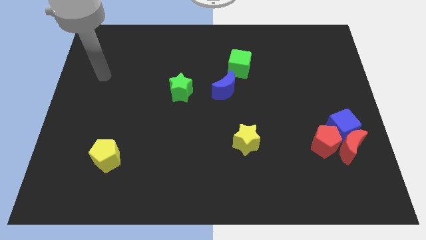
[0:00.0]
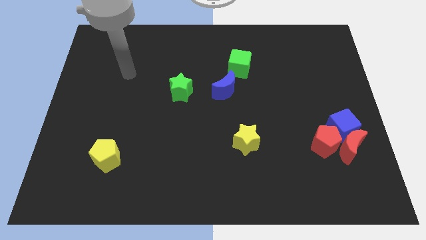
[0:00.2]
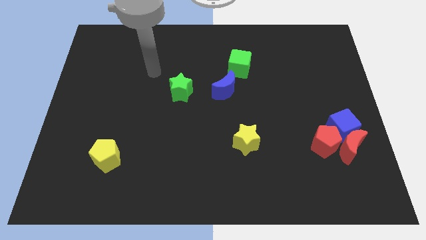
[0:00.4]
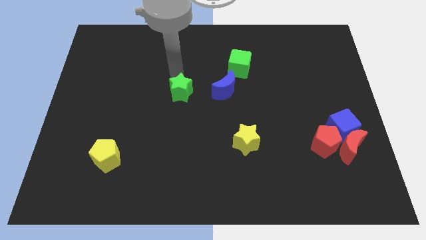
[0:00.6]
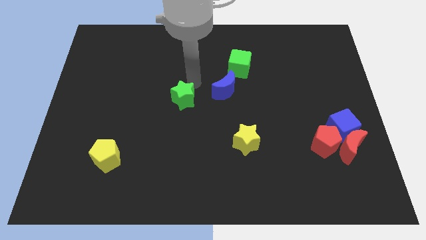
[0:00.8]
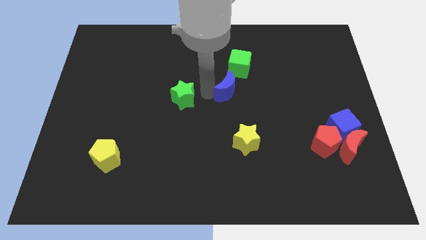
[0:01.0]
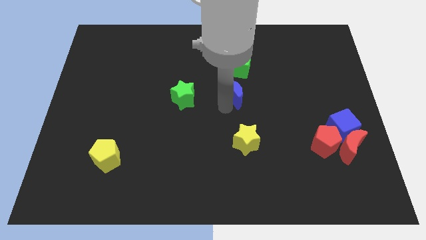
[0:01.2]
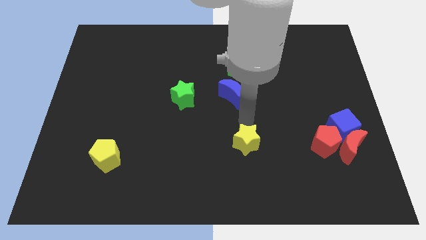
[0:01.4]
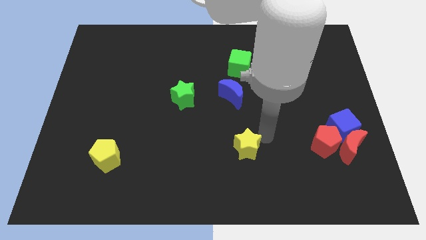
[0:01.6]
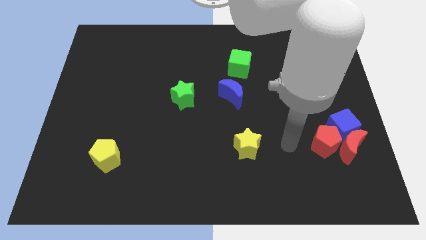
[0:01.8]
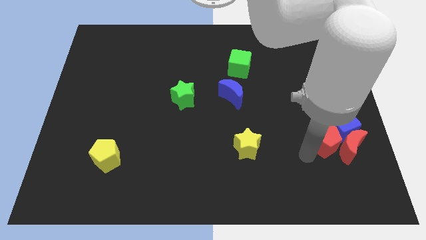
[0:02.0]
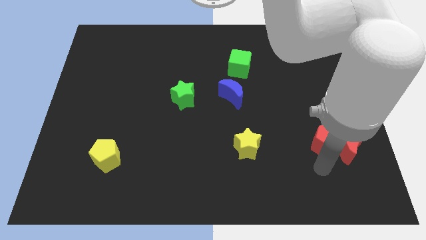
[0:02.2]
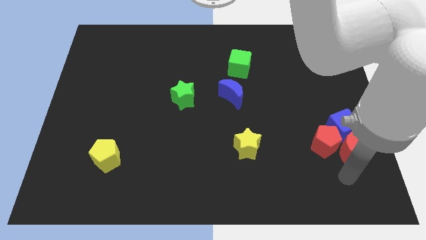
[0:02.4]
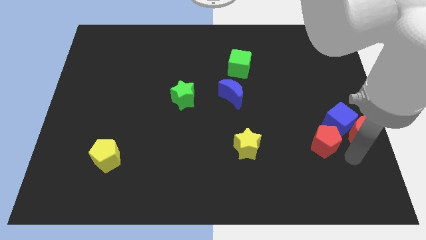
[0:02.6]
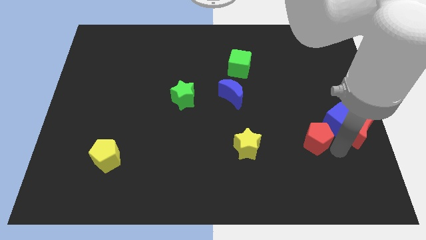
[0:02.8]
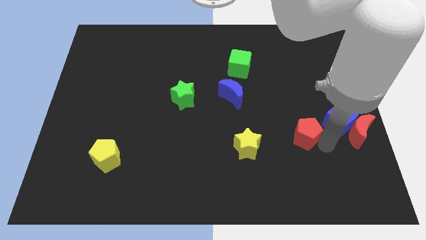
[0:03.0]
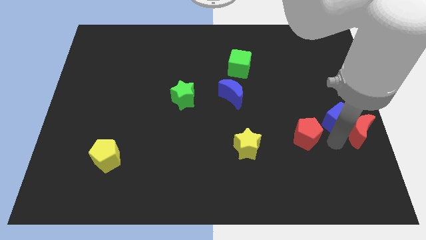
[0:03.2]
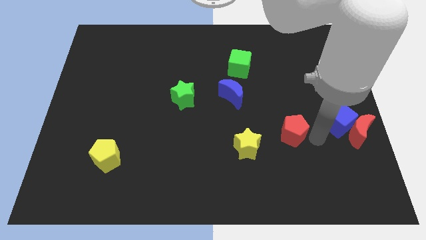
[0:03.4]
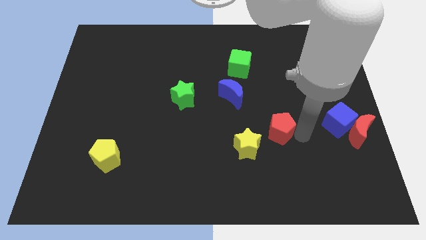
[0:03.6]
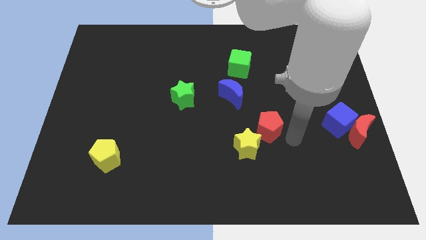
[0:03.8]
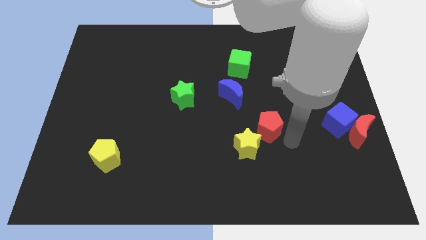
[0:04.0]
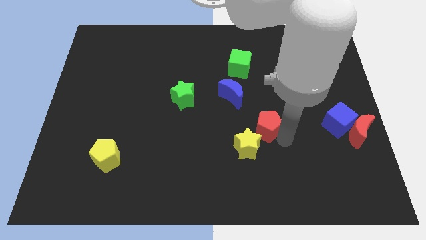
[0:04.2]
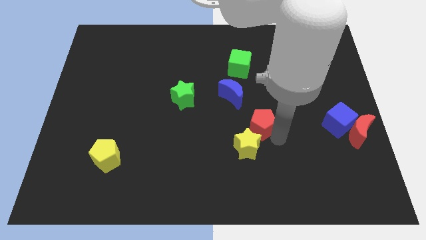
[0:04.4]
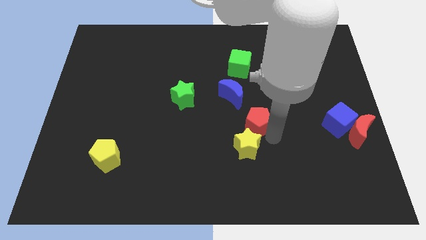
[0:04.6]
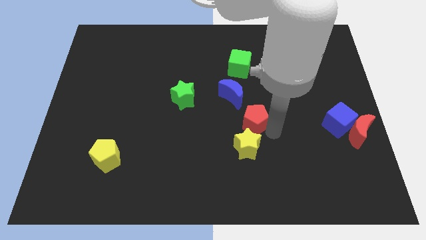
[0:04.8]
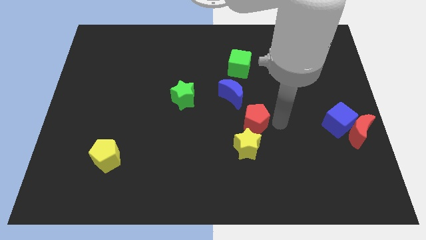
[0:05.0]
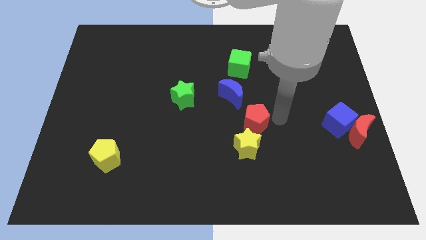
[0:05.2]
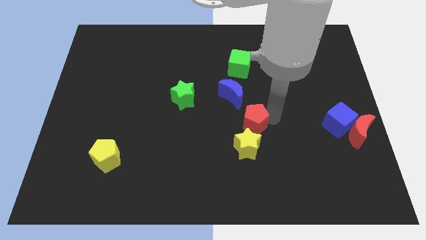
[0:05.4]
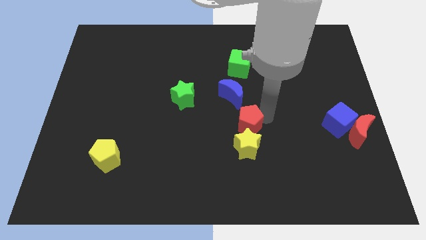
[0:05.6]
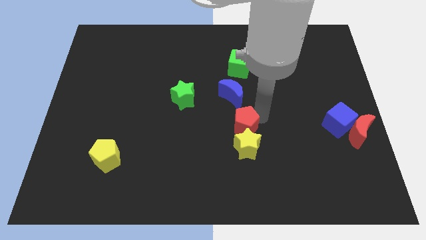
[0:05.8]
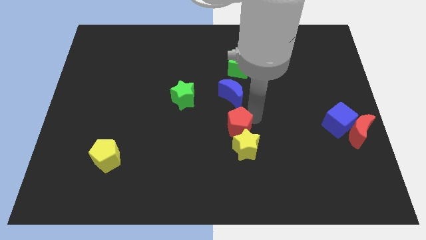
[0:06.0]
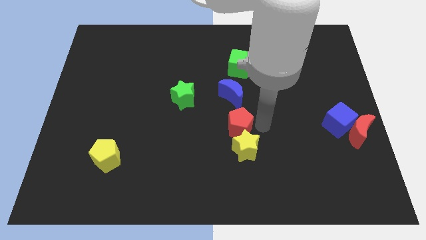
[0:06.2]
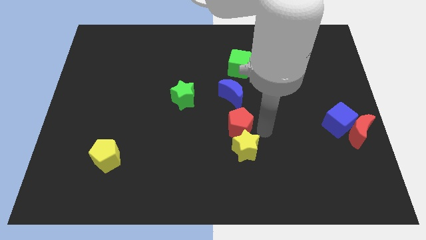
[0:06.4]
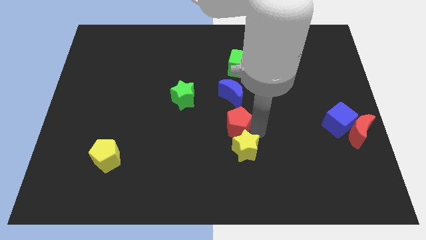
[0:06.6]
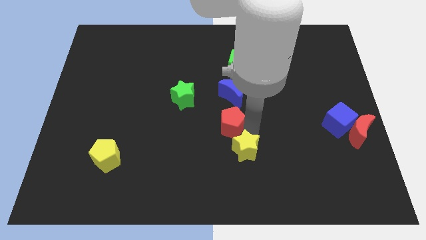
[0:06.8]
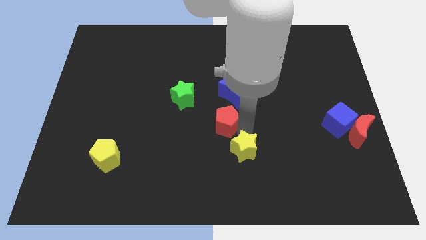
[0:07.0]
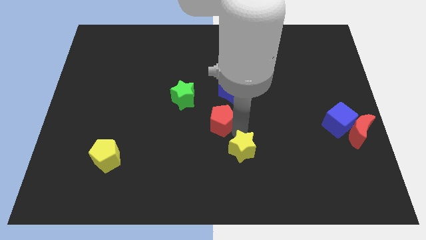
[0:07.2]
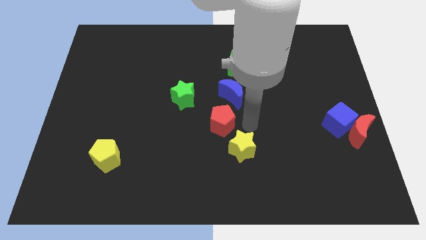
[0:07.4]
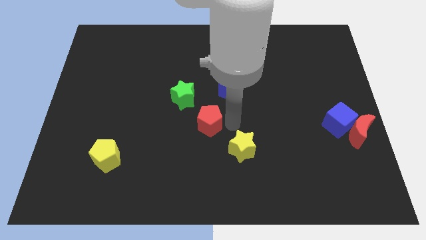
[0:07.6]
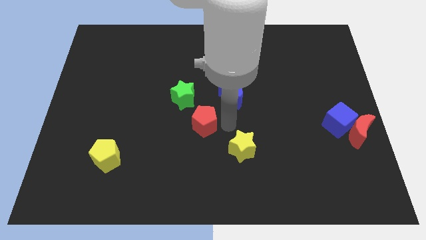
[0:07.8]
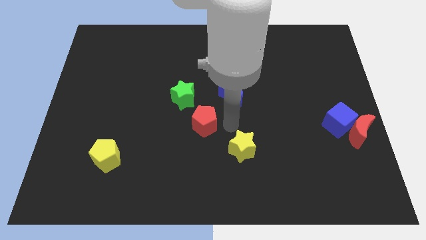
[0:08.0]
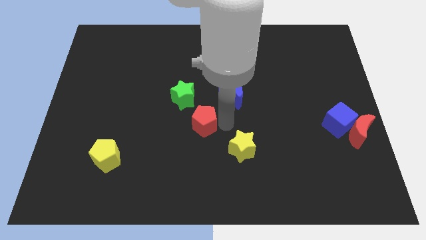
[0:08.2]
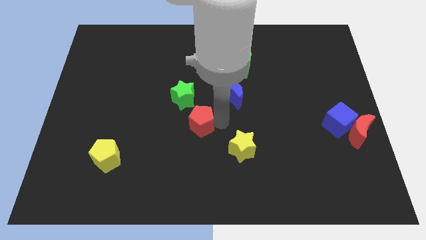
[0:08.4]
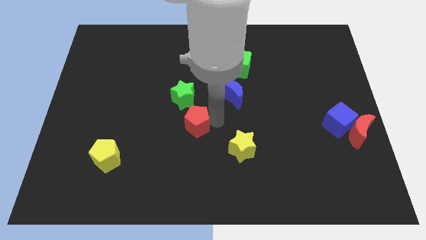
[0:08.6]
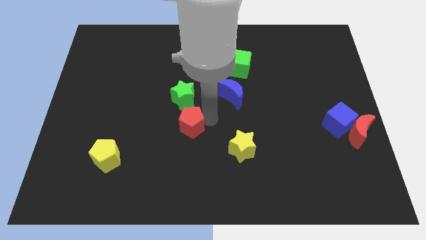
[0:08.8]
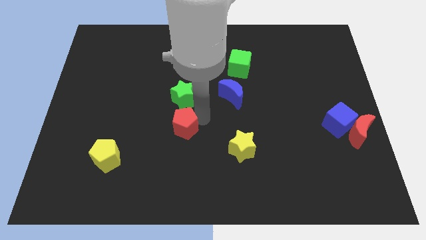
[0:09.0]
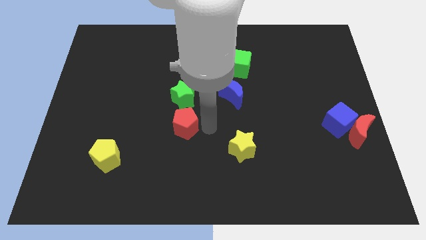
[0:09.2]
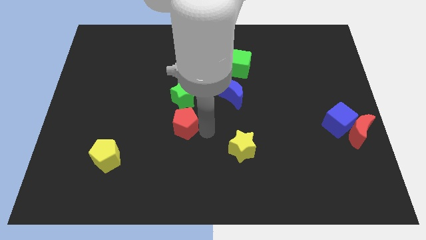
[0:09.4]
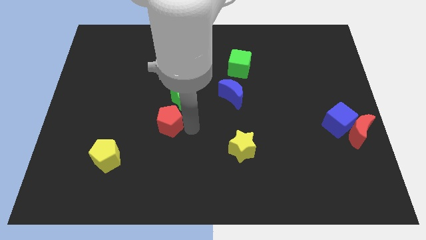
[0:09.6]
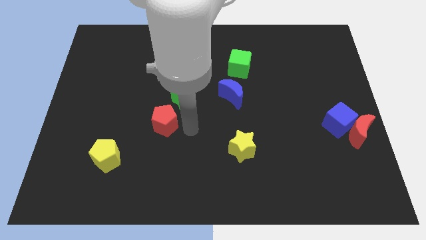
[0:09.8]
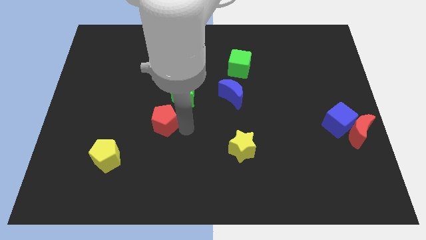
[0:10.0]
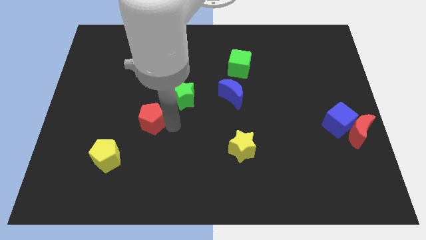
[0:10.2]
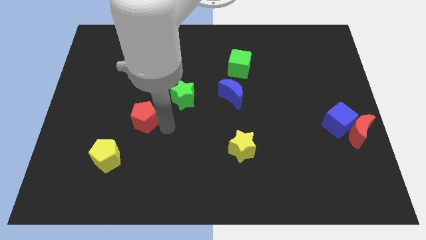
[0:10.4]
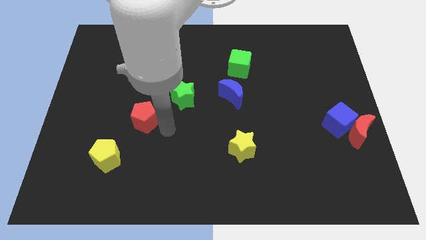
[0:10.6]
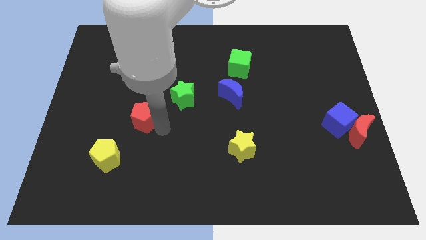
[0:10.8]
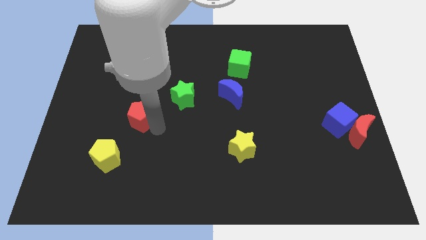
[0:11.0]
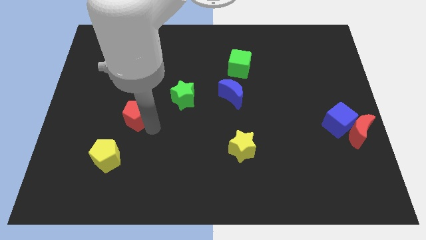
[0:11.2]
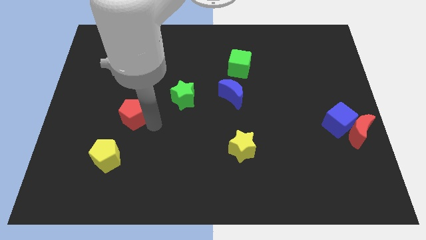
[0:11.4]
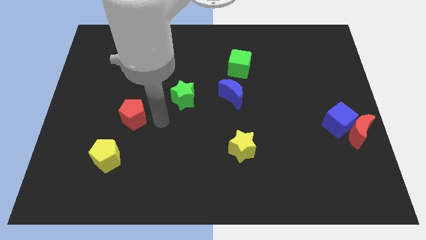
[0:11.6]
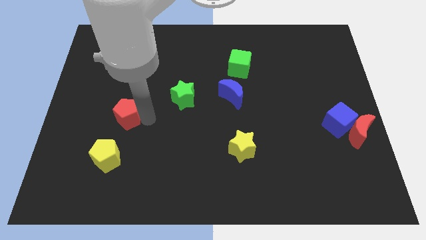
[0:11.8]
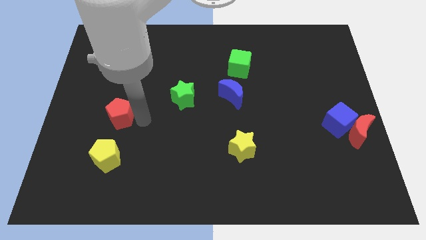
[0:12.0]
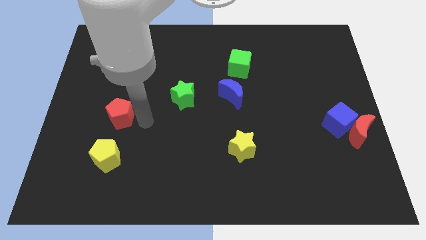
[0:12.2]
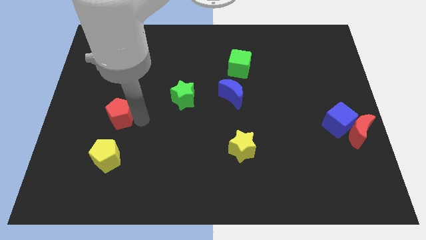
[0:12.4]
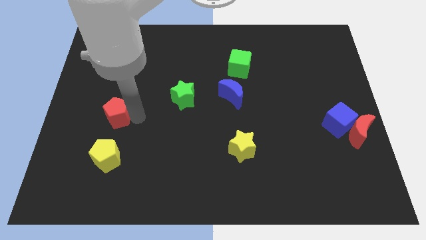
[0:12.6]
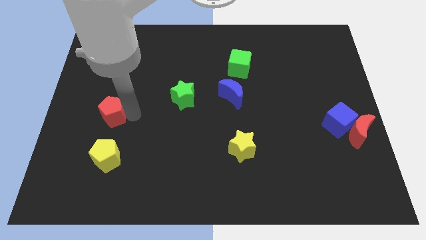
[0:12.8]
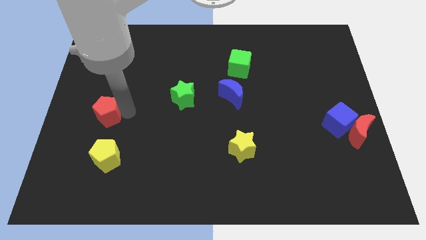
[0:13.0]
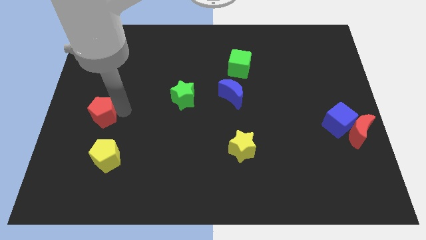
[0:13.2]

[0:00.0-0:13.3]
slide the red pentagon to the left side of the board
